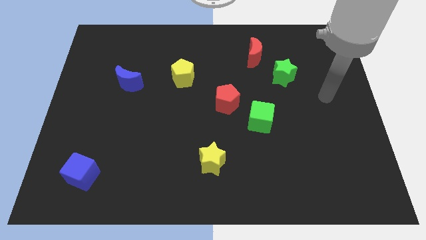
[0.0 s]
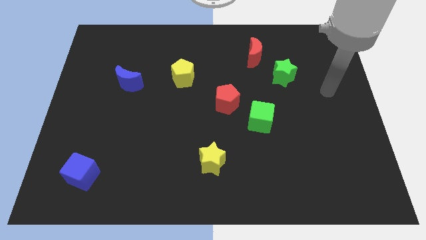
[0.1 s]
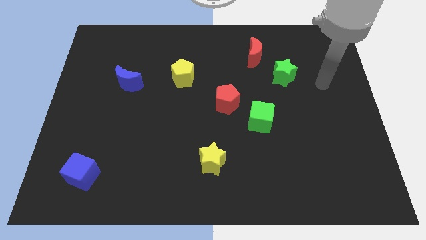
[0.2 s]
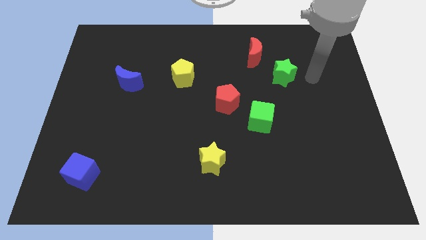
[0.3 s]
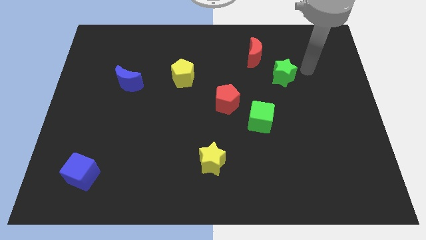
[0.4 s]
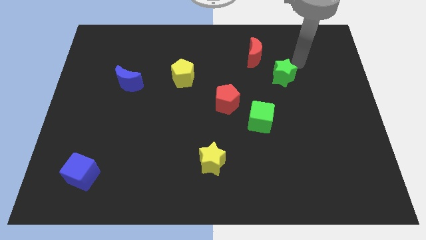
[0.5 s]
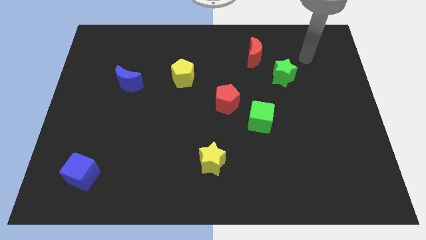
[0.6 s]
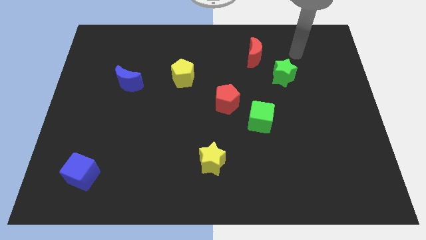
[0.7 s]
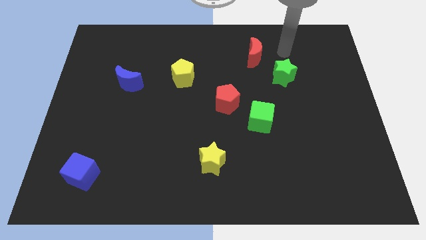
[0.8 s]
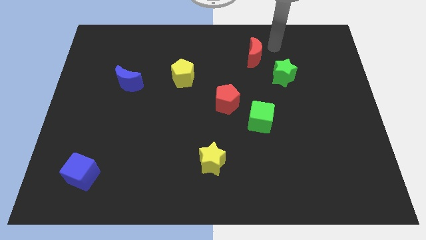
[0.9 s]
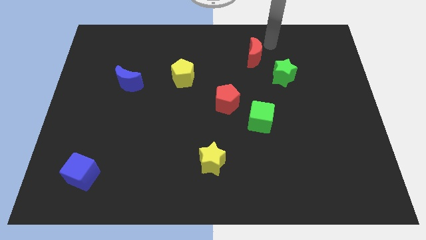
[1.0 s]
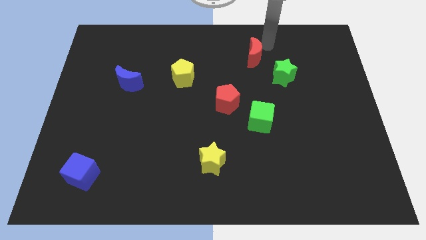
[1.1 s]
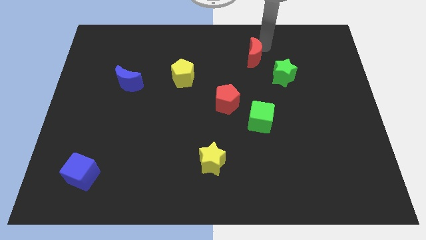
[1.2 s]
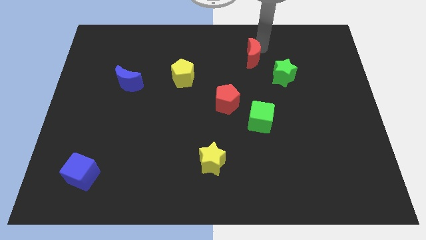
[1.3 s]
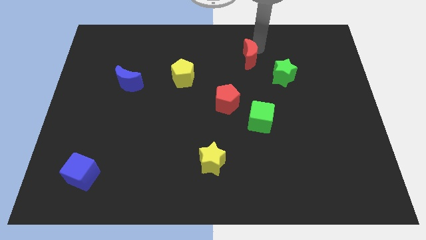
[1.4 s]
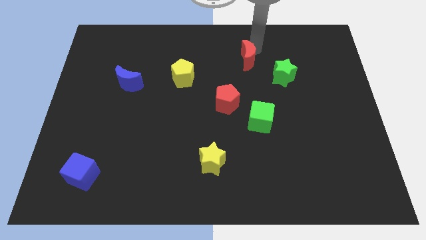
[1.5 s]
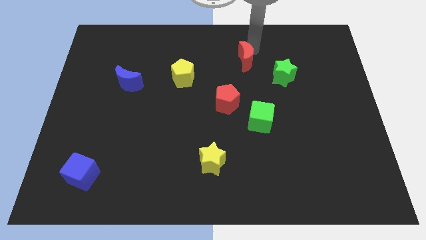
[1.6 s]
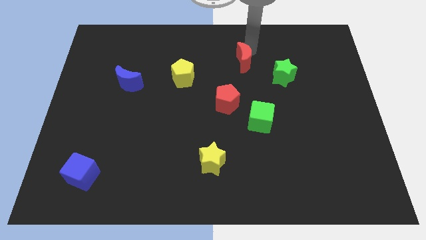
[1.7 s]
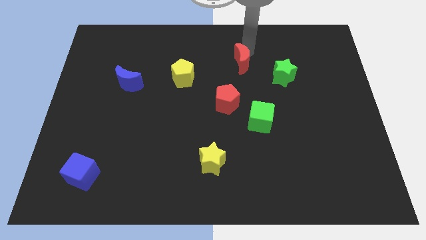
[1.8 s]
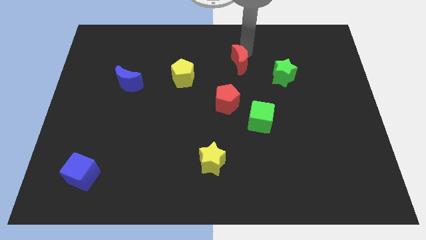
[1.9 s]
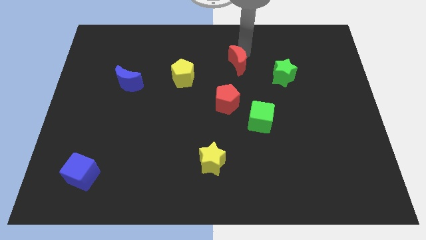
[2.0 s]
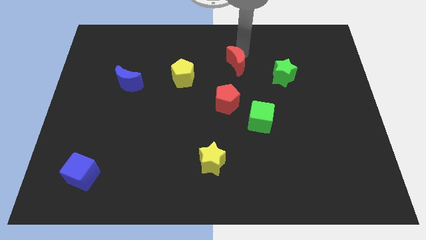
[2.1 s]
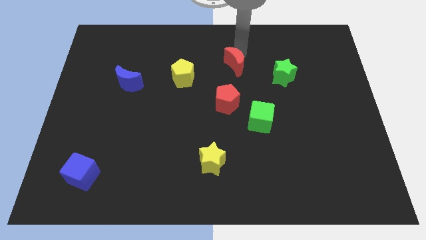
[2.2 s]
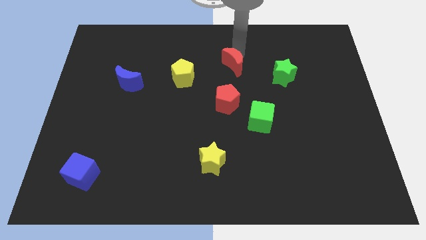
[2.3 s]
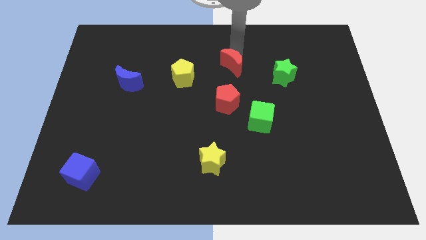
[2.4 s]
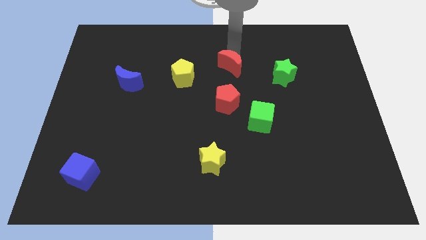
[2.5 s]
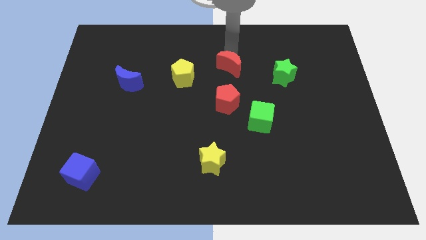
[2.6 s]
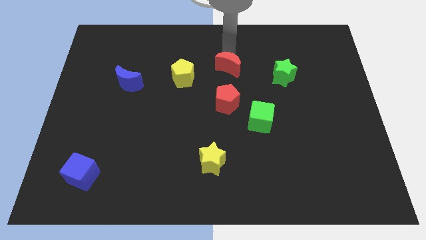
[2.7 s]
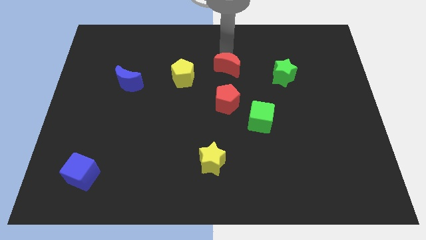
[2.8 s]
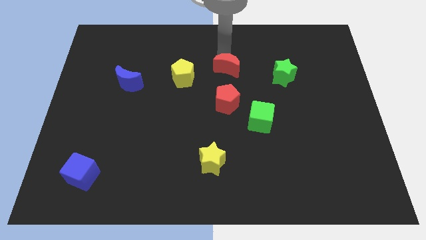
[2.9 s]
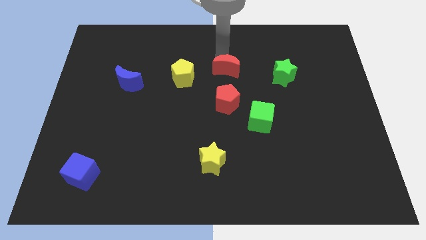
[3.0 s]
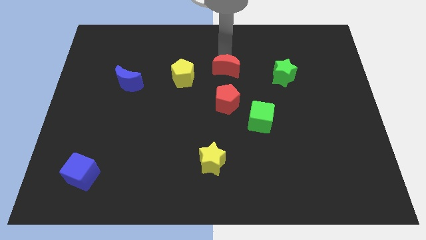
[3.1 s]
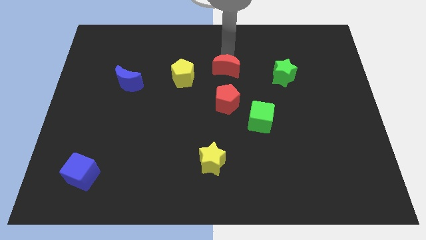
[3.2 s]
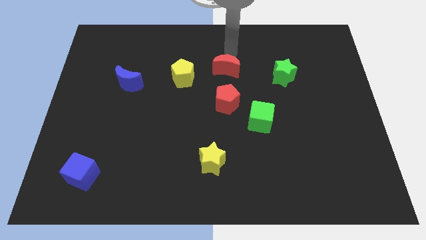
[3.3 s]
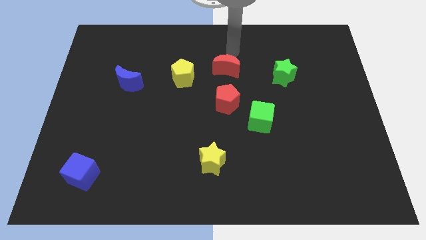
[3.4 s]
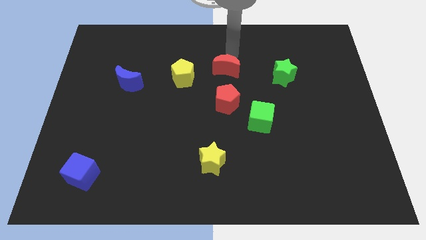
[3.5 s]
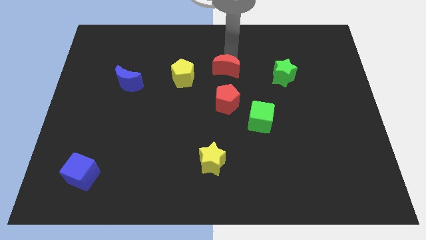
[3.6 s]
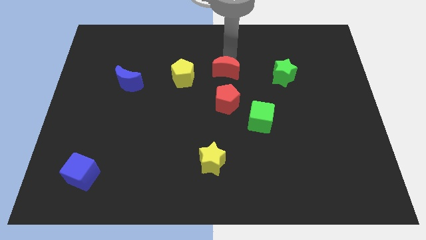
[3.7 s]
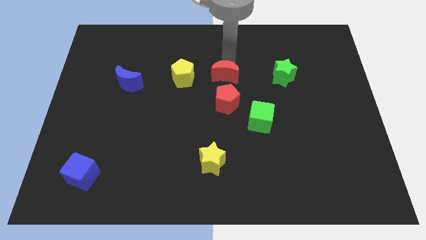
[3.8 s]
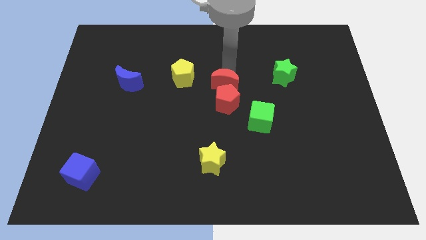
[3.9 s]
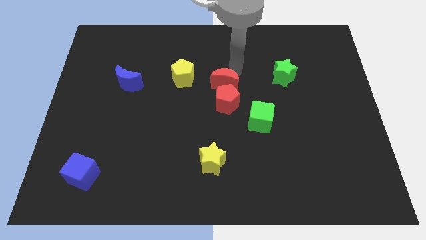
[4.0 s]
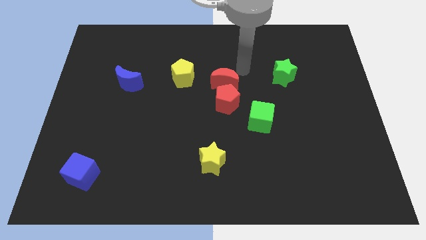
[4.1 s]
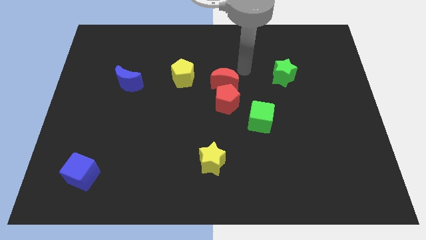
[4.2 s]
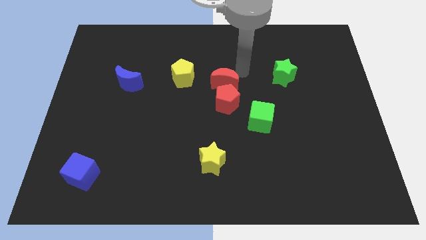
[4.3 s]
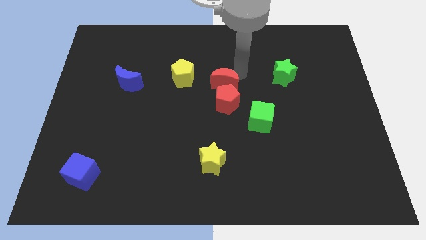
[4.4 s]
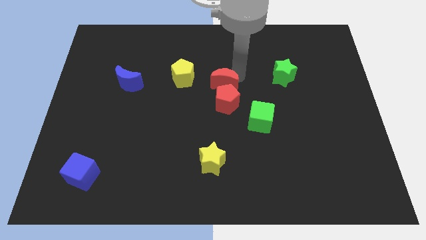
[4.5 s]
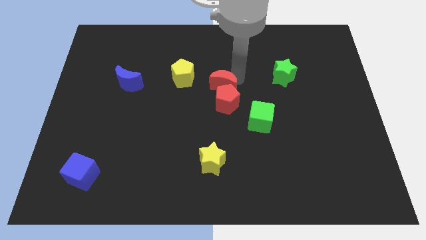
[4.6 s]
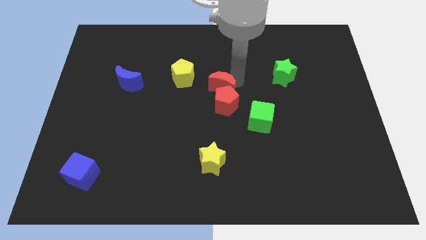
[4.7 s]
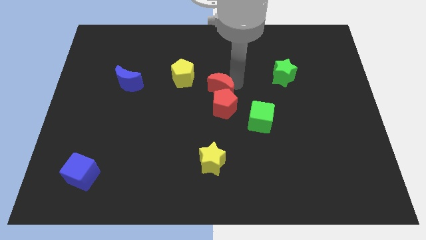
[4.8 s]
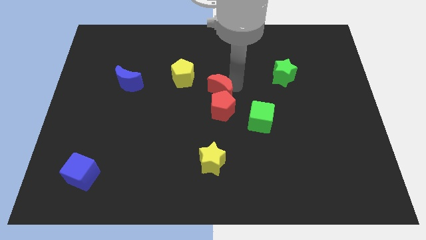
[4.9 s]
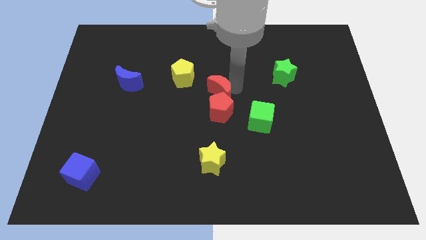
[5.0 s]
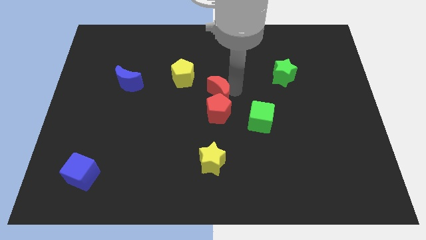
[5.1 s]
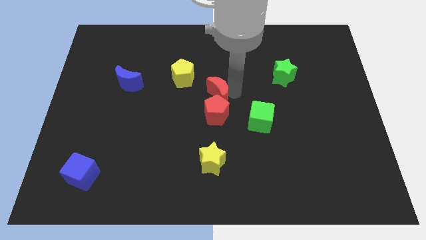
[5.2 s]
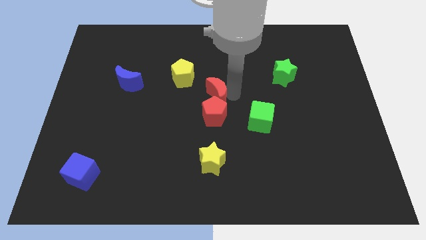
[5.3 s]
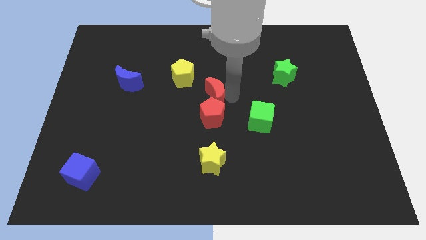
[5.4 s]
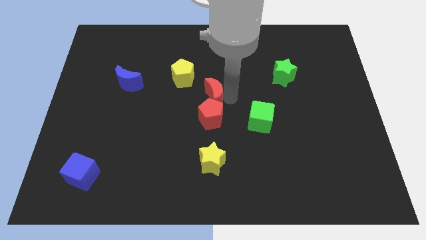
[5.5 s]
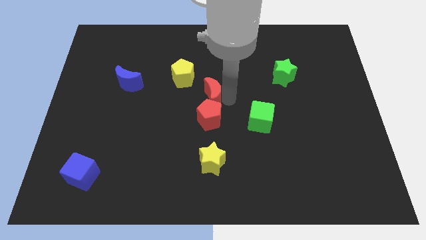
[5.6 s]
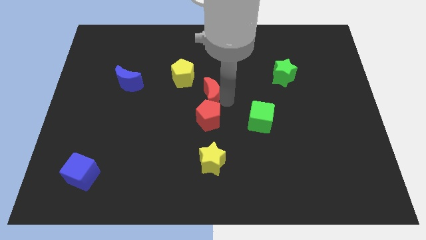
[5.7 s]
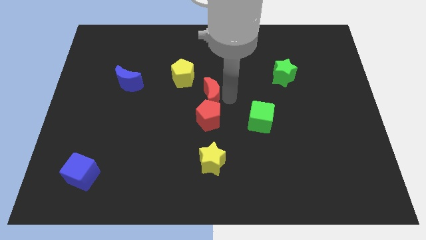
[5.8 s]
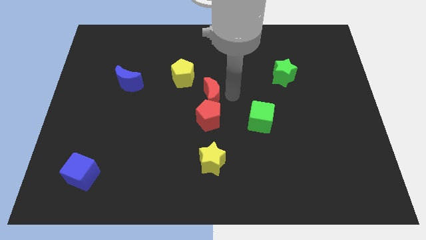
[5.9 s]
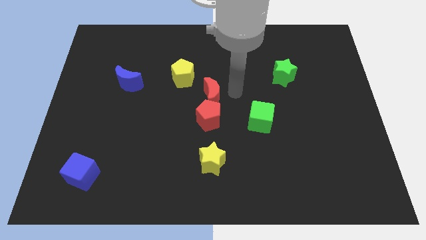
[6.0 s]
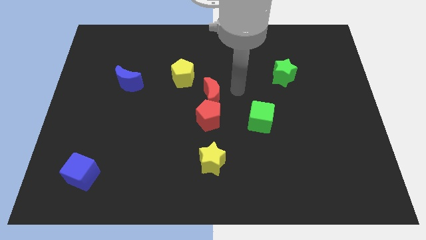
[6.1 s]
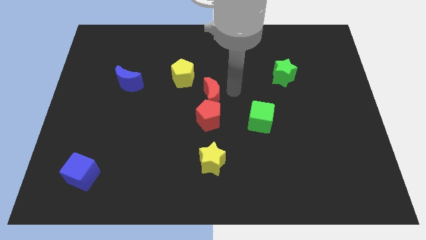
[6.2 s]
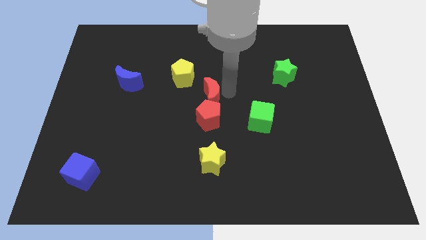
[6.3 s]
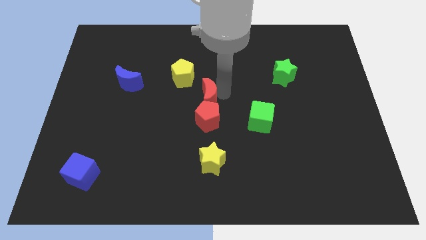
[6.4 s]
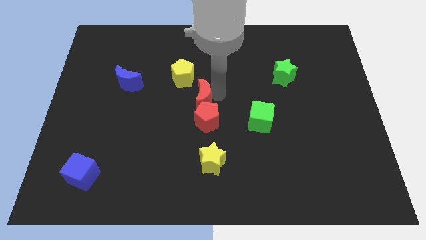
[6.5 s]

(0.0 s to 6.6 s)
slide the red moon diagonally downwards and left

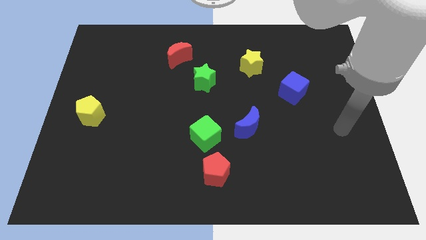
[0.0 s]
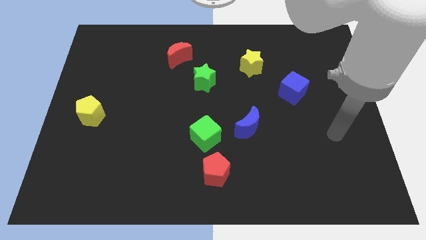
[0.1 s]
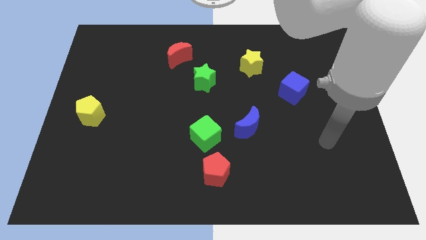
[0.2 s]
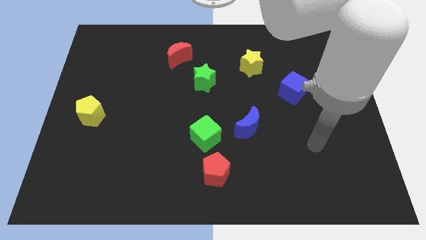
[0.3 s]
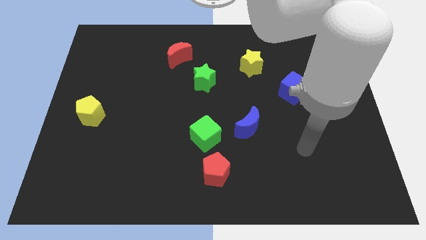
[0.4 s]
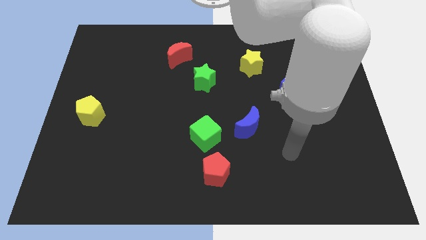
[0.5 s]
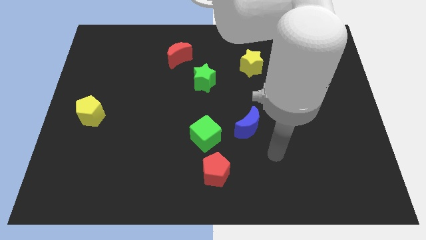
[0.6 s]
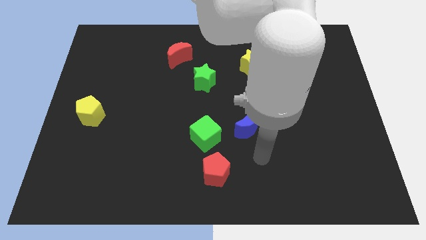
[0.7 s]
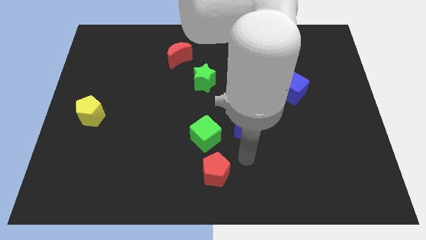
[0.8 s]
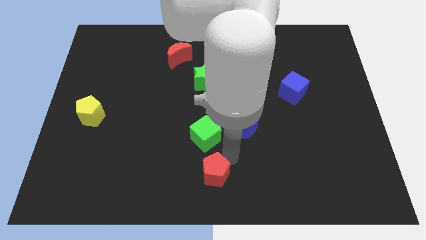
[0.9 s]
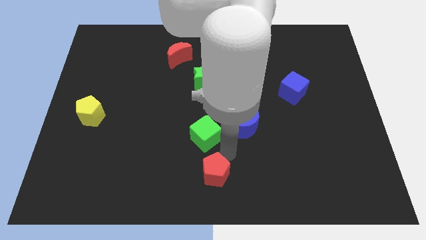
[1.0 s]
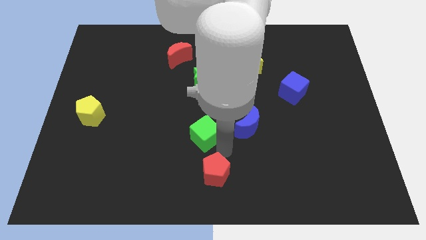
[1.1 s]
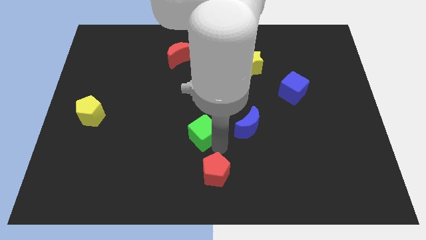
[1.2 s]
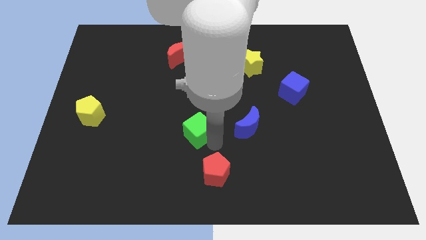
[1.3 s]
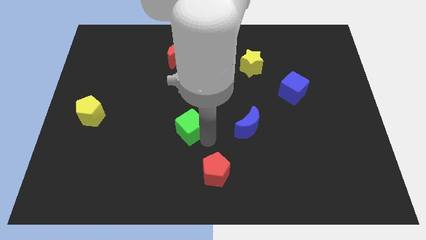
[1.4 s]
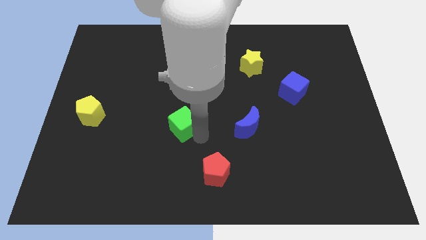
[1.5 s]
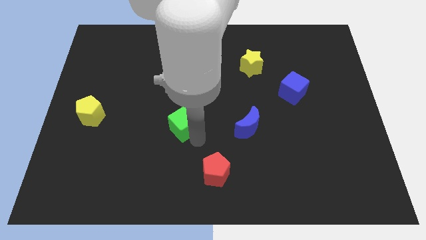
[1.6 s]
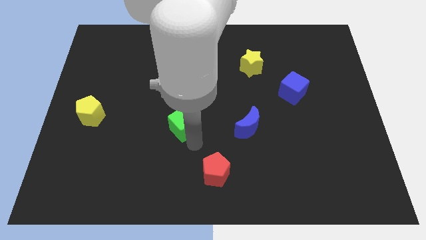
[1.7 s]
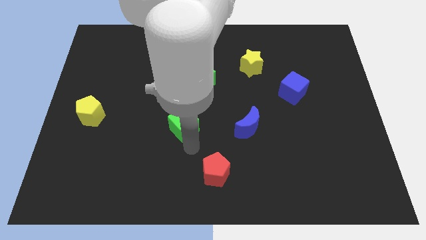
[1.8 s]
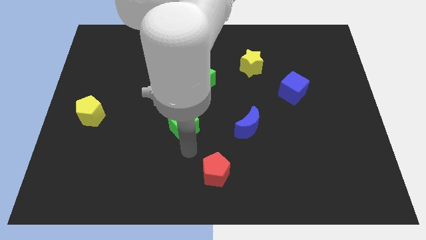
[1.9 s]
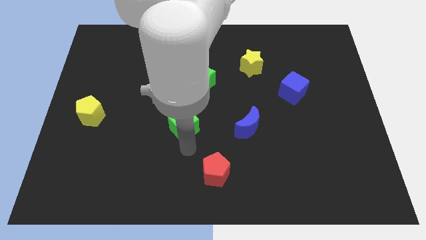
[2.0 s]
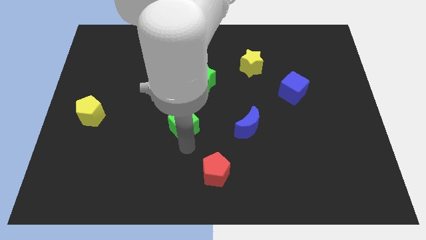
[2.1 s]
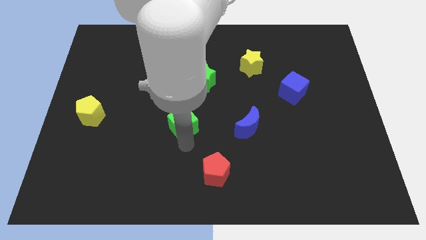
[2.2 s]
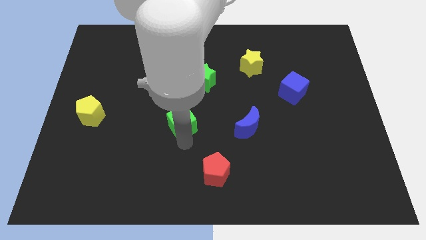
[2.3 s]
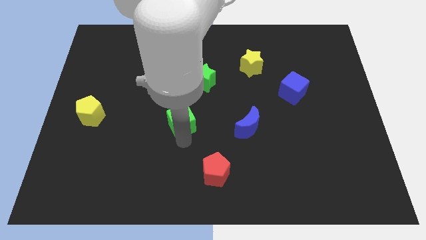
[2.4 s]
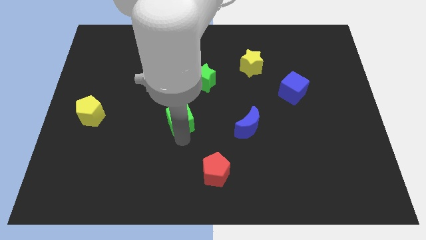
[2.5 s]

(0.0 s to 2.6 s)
slightly slide the green cube up and to the left diagonally
